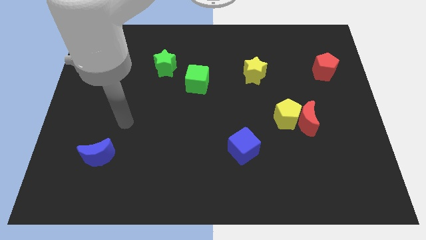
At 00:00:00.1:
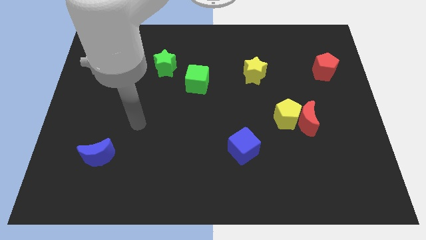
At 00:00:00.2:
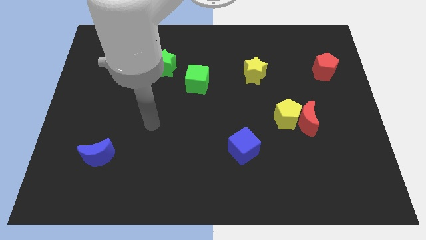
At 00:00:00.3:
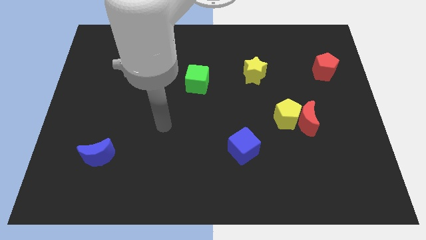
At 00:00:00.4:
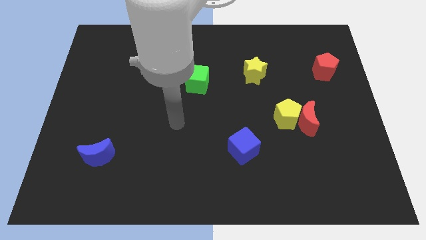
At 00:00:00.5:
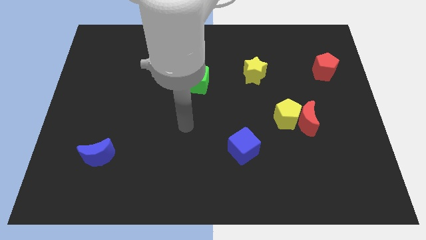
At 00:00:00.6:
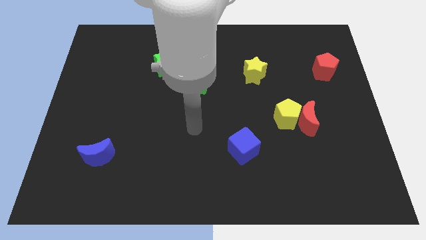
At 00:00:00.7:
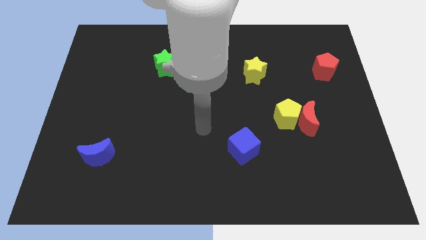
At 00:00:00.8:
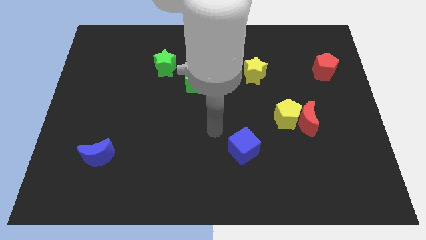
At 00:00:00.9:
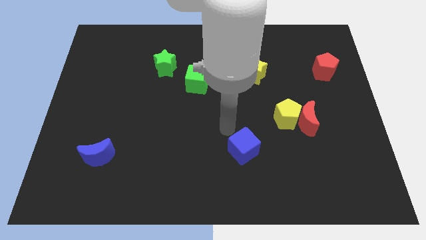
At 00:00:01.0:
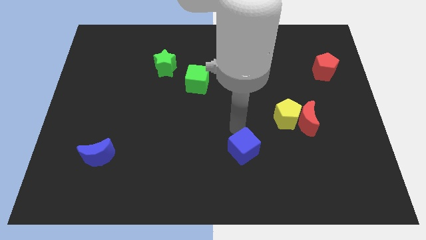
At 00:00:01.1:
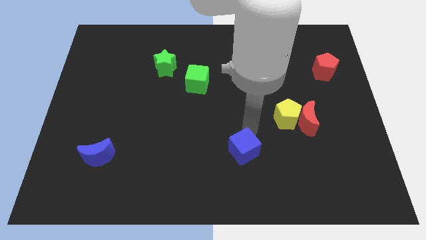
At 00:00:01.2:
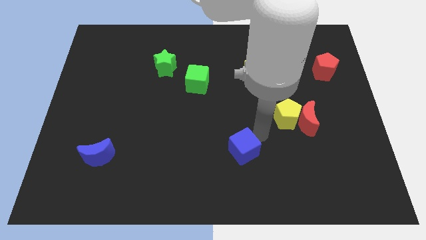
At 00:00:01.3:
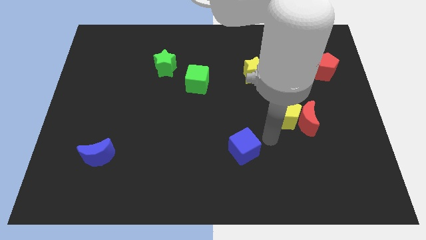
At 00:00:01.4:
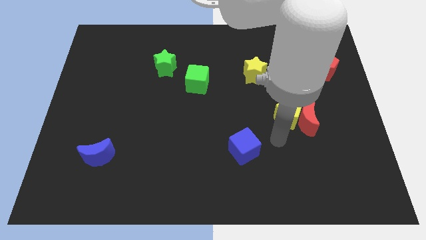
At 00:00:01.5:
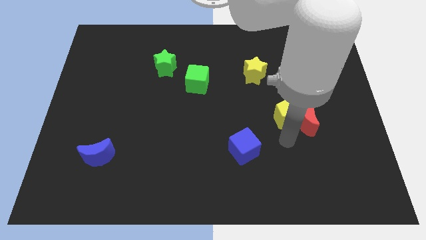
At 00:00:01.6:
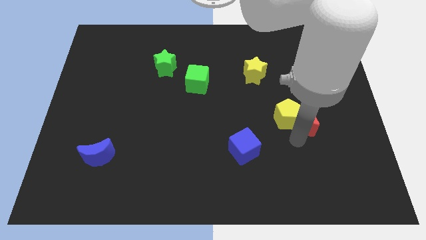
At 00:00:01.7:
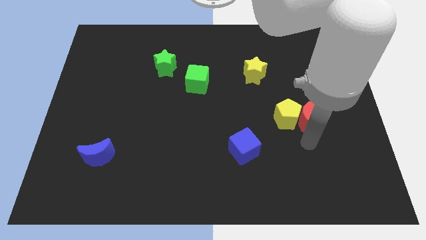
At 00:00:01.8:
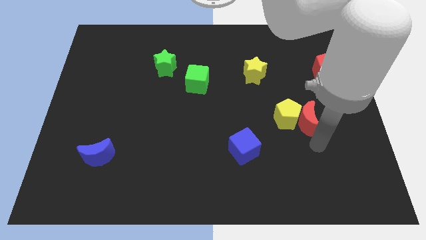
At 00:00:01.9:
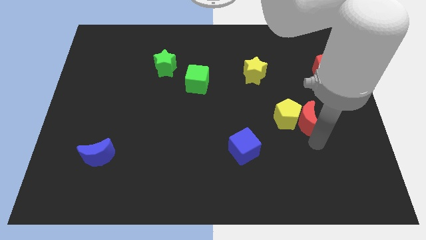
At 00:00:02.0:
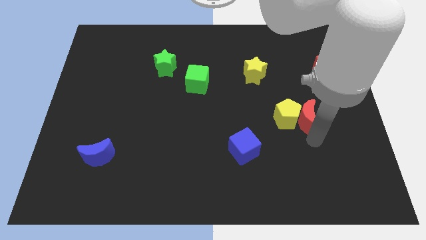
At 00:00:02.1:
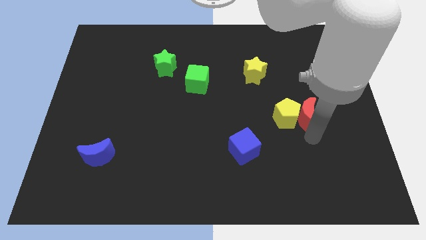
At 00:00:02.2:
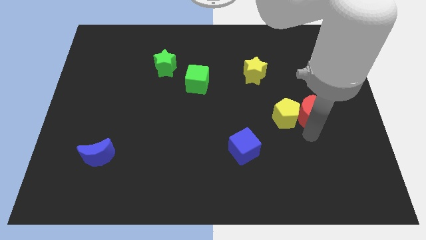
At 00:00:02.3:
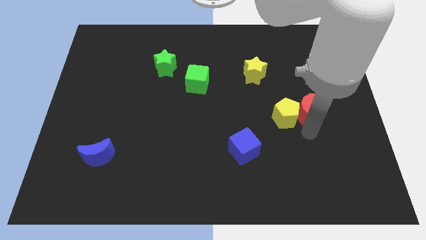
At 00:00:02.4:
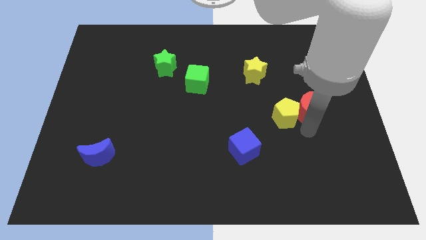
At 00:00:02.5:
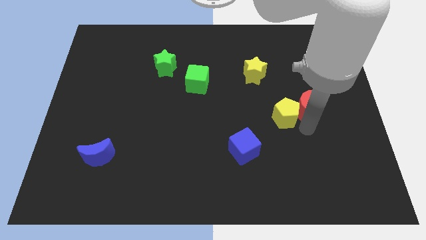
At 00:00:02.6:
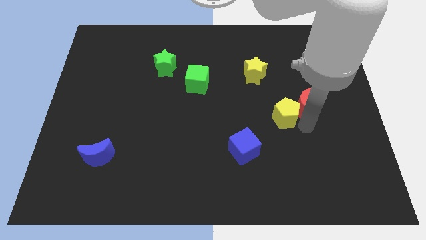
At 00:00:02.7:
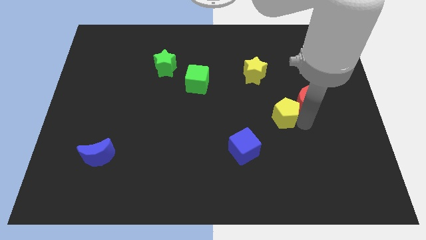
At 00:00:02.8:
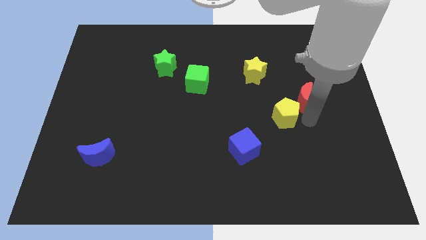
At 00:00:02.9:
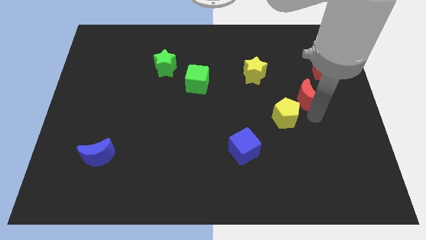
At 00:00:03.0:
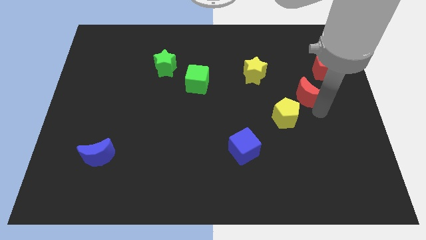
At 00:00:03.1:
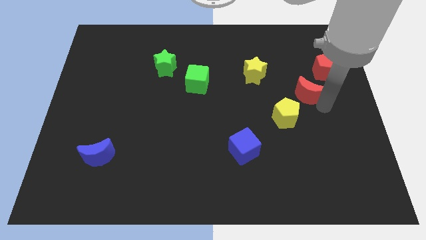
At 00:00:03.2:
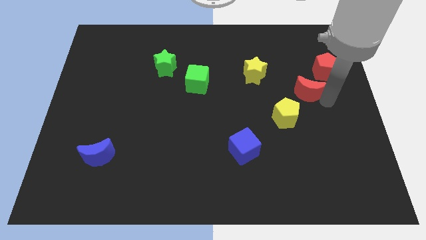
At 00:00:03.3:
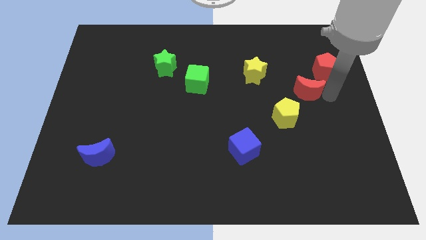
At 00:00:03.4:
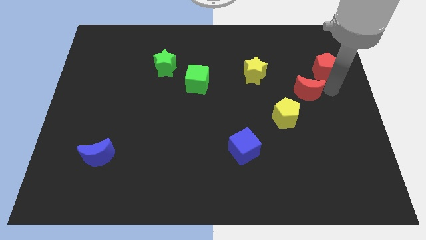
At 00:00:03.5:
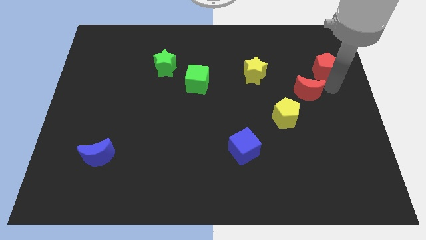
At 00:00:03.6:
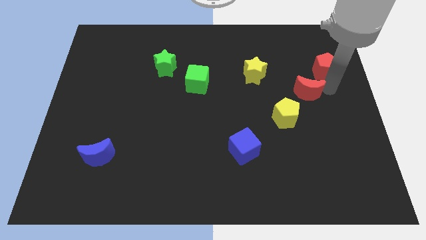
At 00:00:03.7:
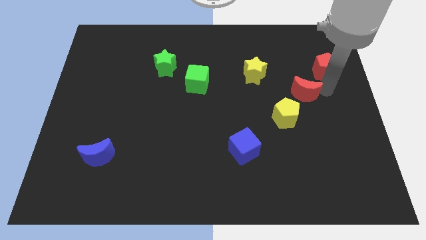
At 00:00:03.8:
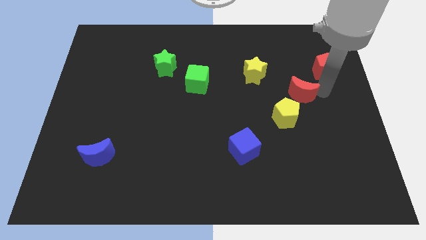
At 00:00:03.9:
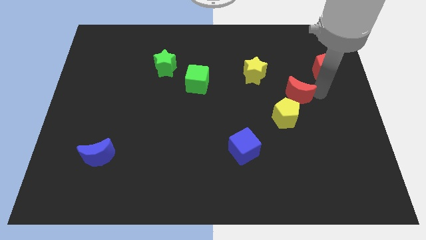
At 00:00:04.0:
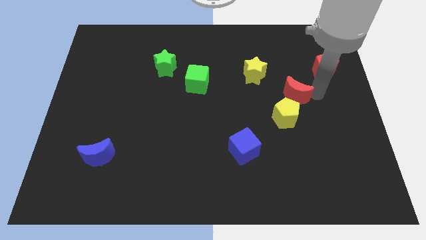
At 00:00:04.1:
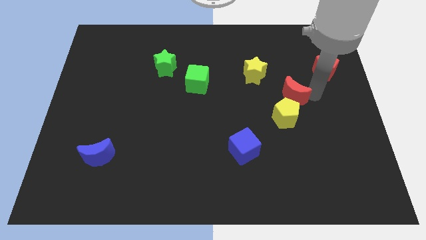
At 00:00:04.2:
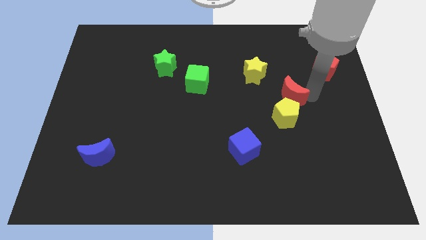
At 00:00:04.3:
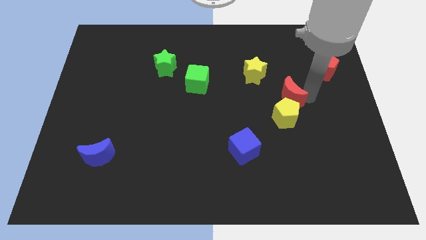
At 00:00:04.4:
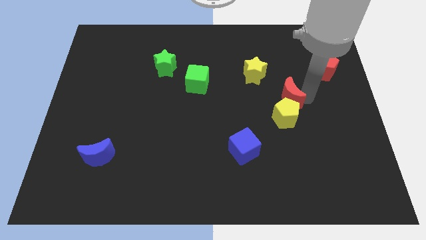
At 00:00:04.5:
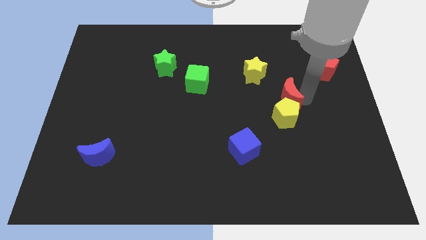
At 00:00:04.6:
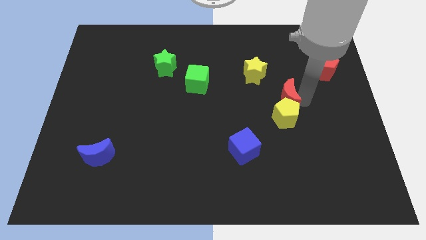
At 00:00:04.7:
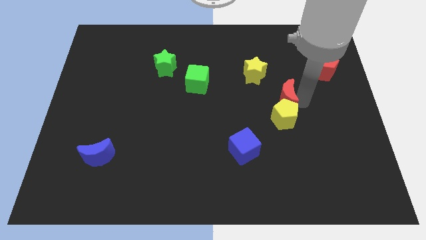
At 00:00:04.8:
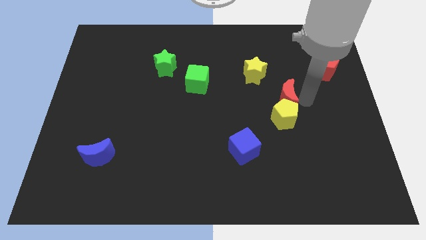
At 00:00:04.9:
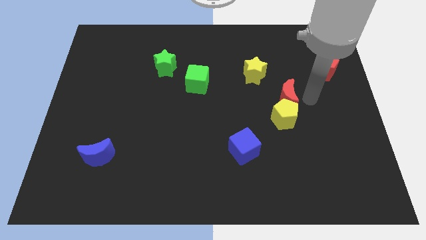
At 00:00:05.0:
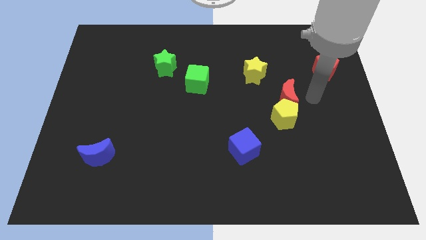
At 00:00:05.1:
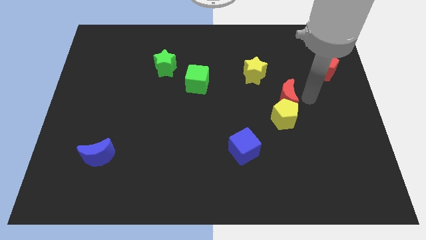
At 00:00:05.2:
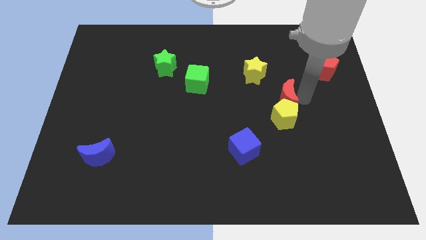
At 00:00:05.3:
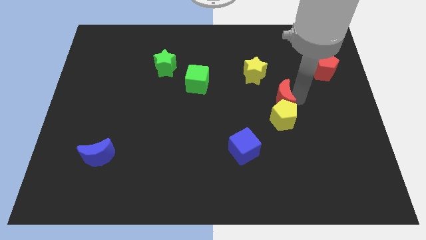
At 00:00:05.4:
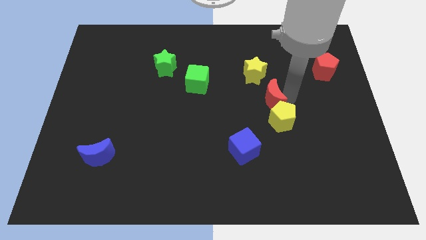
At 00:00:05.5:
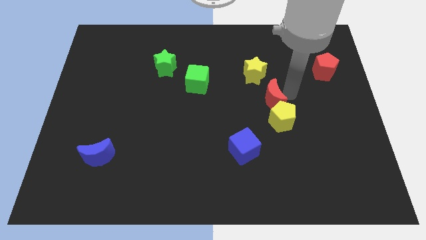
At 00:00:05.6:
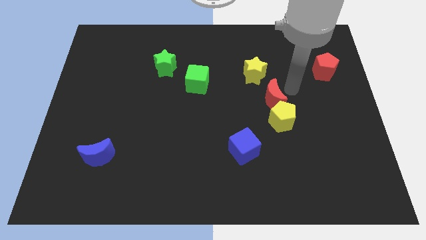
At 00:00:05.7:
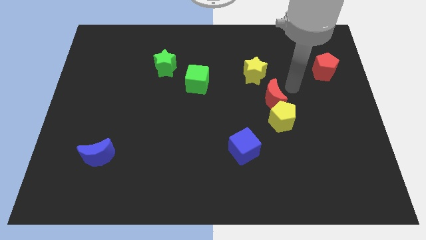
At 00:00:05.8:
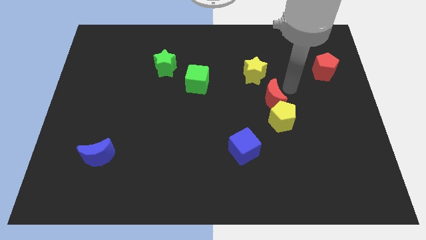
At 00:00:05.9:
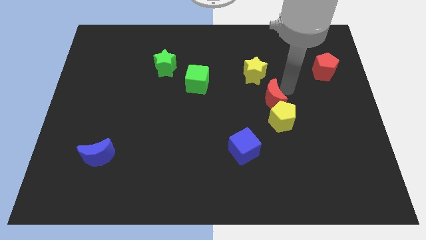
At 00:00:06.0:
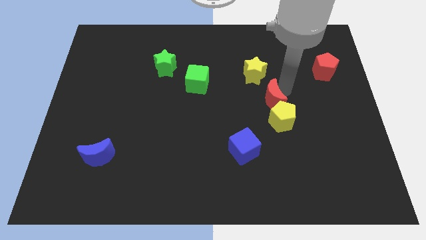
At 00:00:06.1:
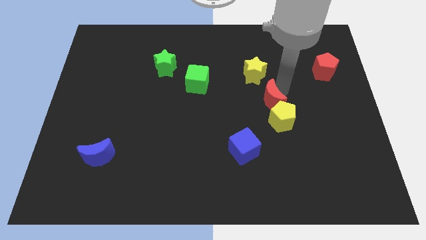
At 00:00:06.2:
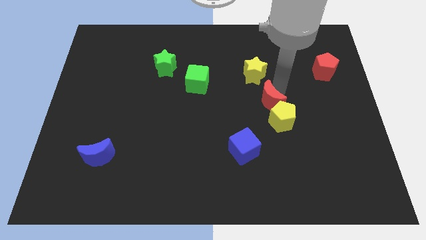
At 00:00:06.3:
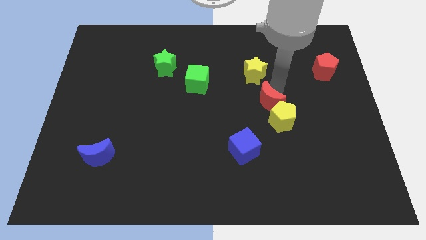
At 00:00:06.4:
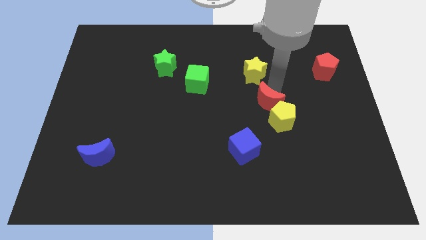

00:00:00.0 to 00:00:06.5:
push the red moon to the left a little bit

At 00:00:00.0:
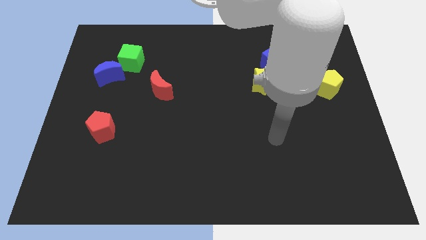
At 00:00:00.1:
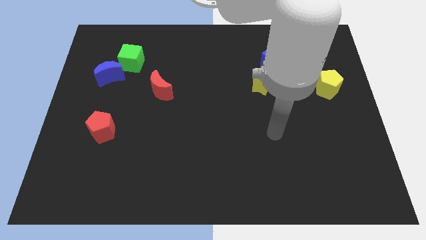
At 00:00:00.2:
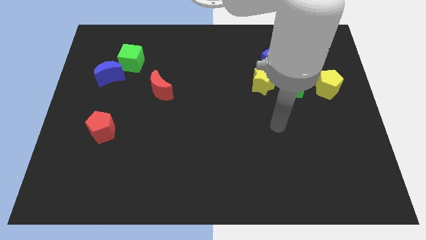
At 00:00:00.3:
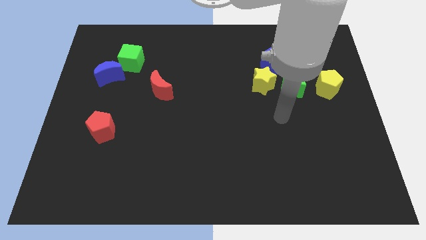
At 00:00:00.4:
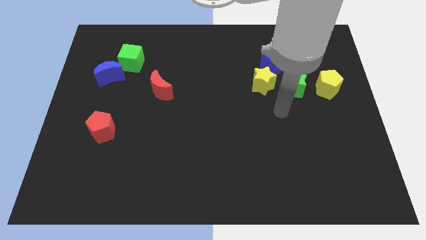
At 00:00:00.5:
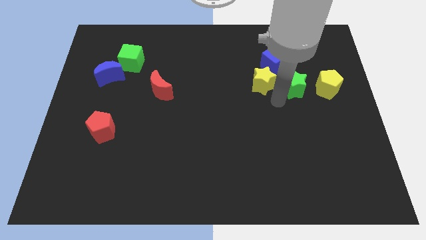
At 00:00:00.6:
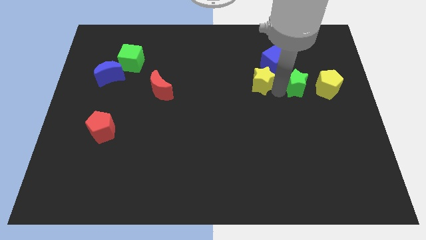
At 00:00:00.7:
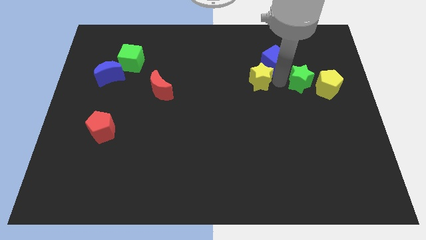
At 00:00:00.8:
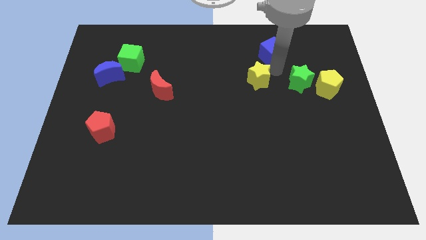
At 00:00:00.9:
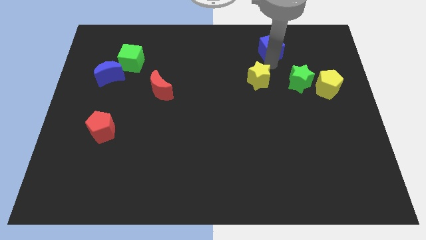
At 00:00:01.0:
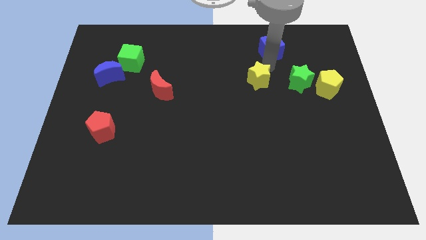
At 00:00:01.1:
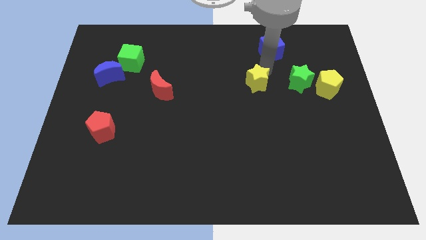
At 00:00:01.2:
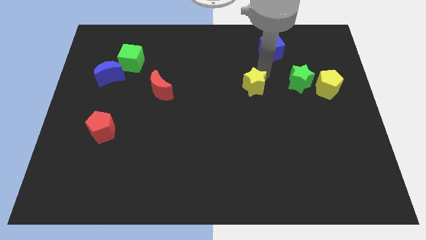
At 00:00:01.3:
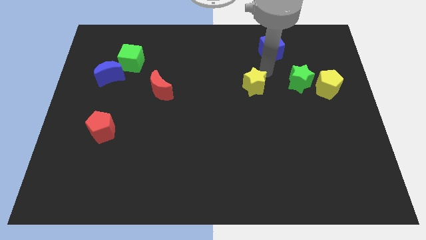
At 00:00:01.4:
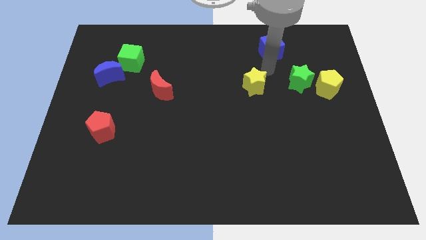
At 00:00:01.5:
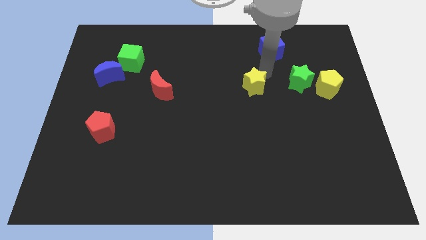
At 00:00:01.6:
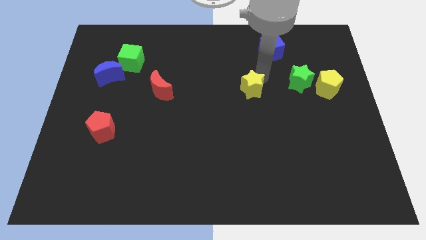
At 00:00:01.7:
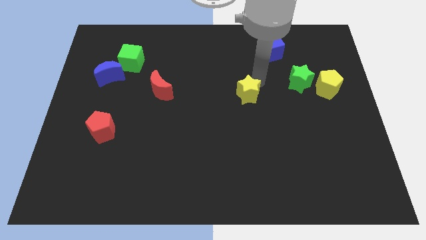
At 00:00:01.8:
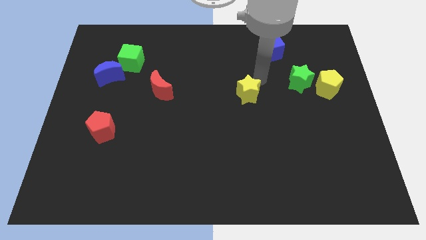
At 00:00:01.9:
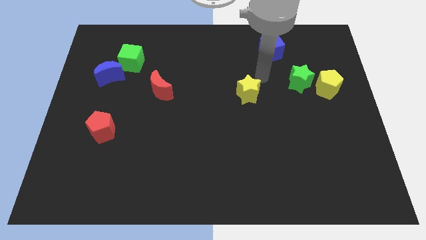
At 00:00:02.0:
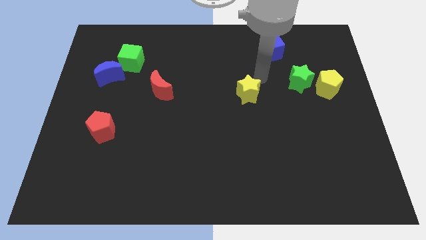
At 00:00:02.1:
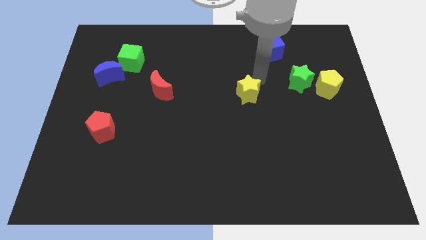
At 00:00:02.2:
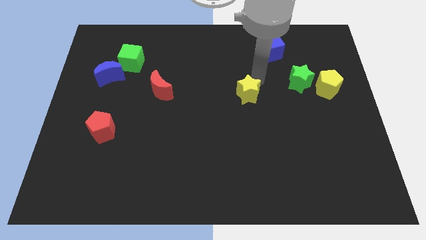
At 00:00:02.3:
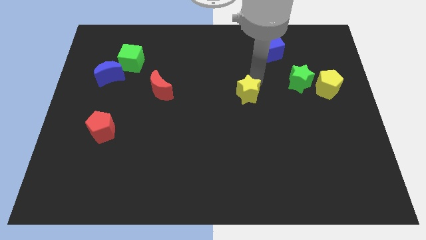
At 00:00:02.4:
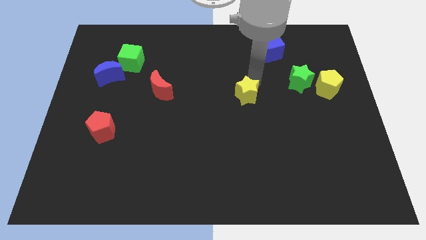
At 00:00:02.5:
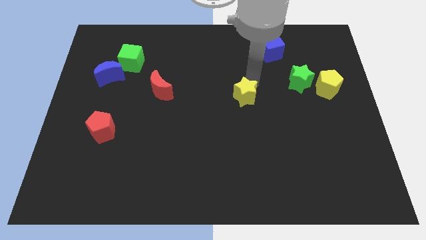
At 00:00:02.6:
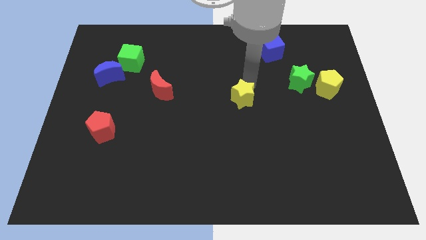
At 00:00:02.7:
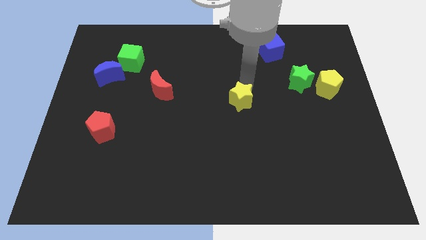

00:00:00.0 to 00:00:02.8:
move the yellow star down and left diagonally a little bit
